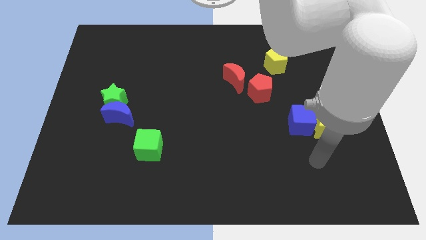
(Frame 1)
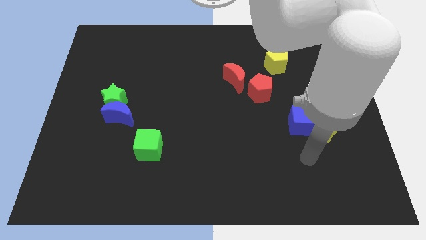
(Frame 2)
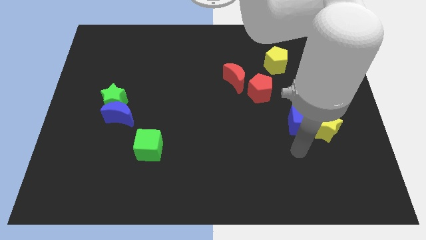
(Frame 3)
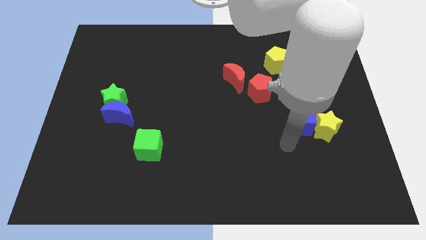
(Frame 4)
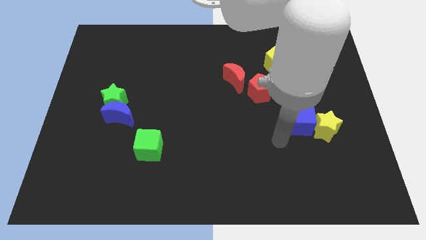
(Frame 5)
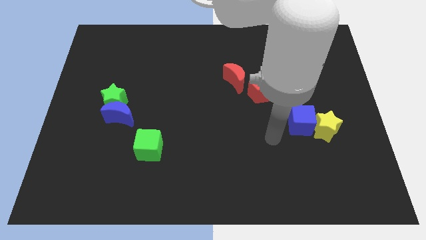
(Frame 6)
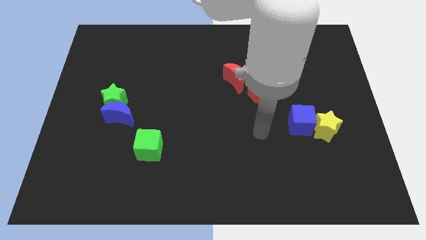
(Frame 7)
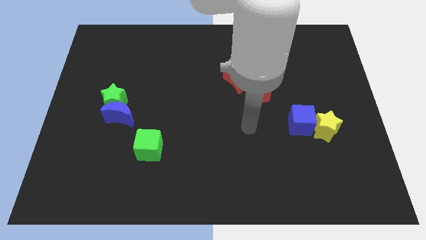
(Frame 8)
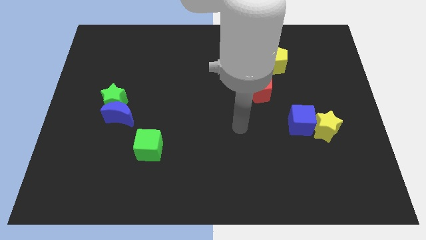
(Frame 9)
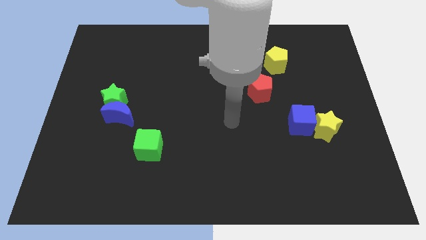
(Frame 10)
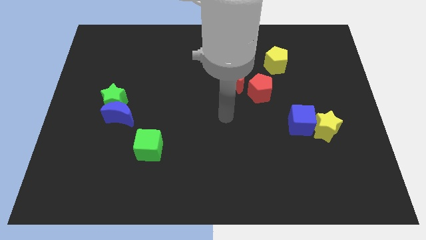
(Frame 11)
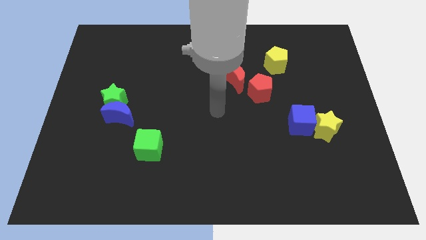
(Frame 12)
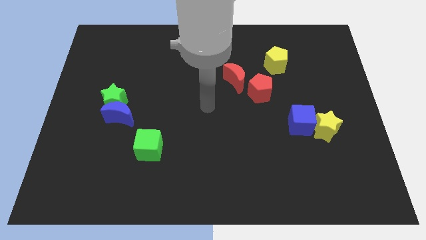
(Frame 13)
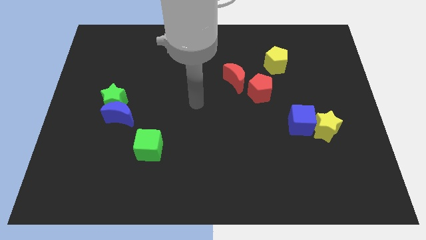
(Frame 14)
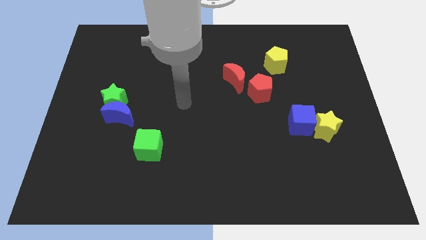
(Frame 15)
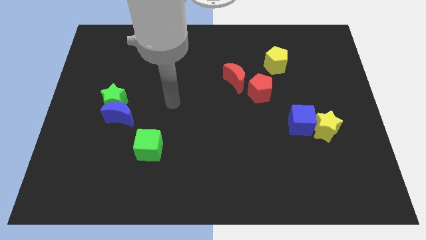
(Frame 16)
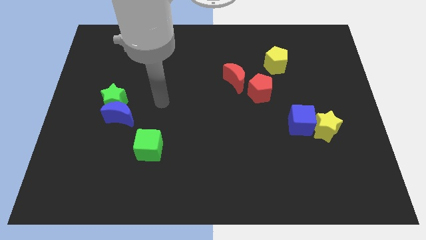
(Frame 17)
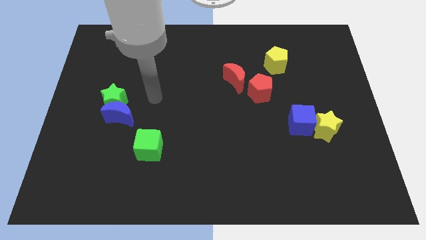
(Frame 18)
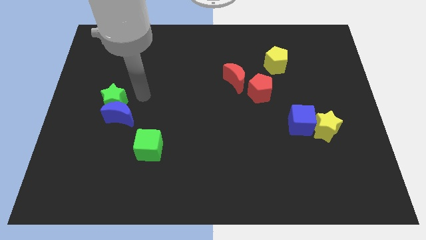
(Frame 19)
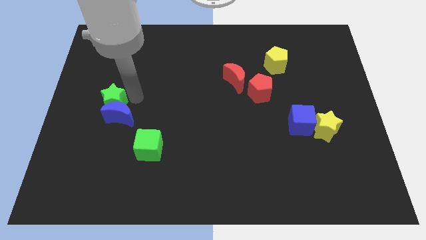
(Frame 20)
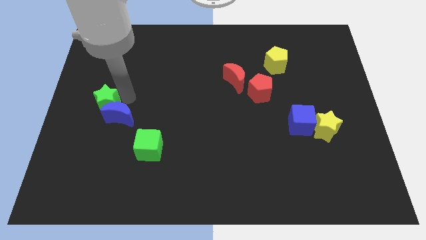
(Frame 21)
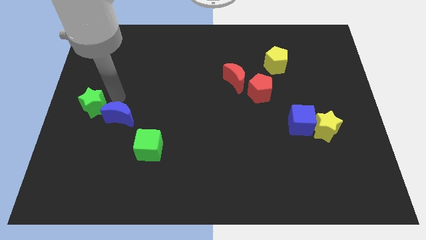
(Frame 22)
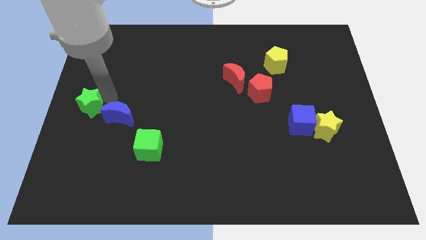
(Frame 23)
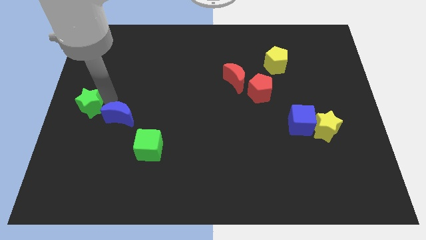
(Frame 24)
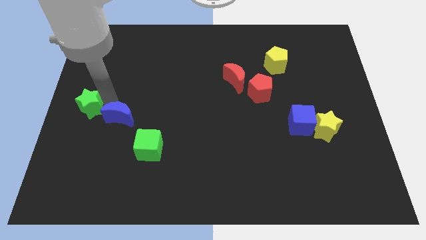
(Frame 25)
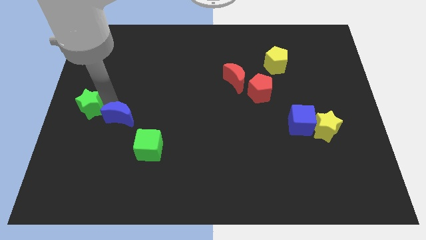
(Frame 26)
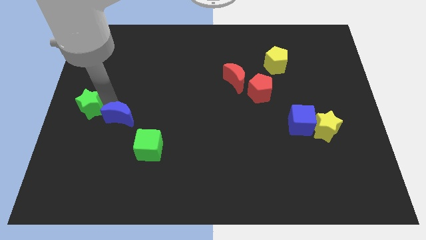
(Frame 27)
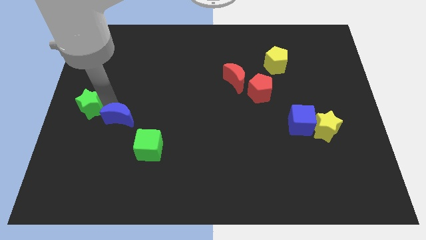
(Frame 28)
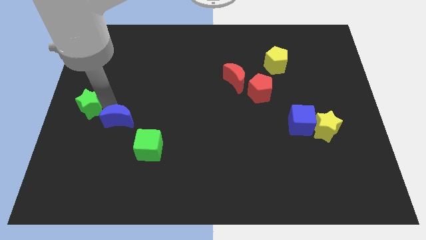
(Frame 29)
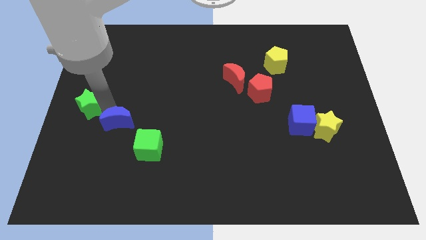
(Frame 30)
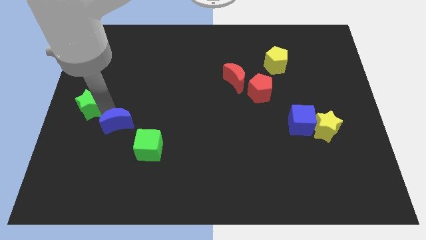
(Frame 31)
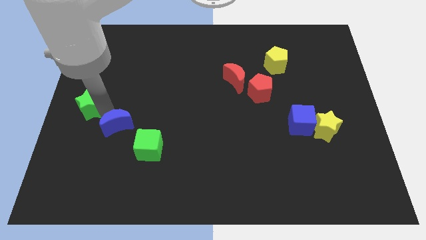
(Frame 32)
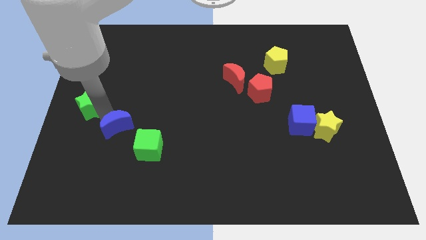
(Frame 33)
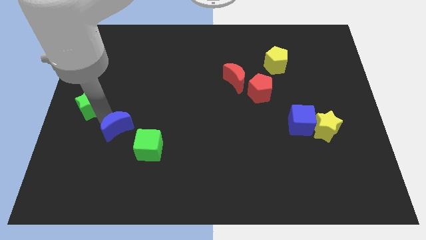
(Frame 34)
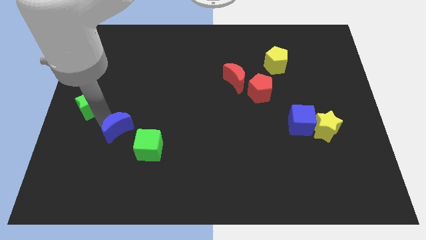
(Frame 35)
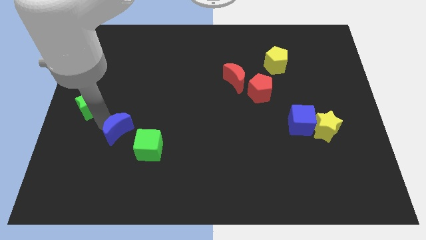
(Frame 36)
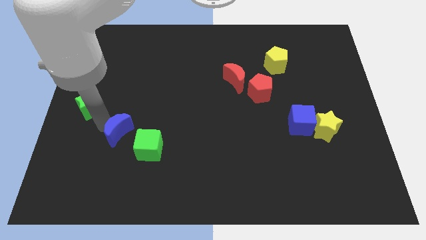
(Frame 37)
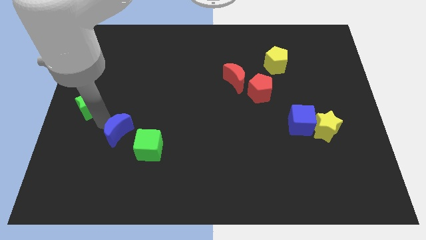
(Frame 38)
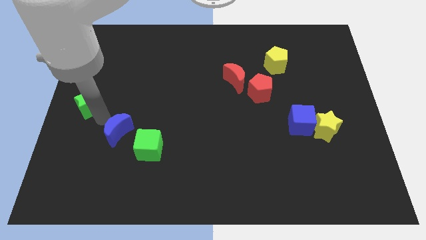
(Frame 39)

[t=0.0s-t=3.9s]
move the blue moon away from the green star

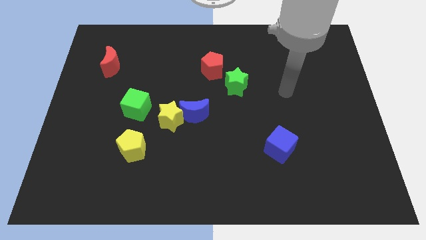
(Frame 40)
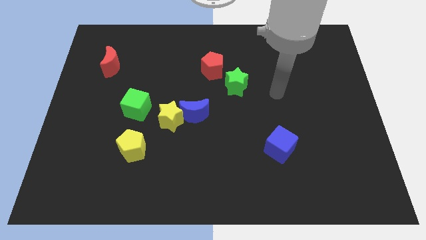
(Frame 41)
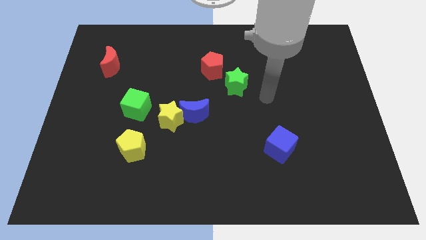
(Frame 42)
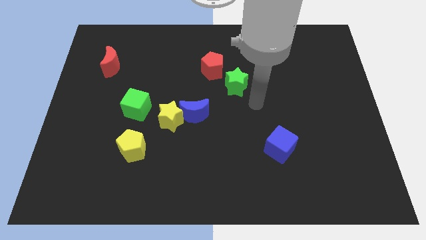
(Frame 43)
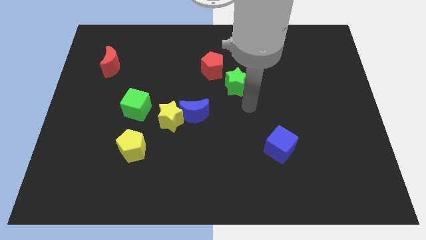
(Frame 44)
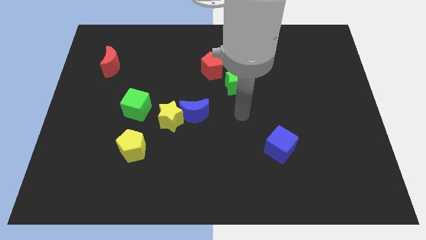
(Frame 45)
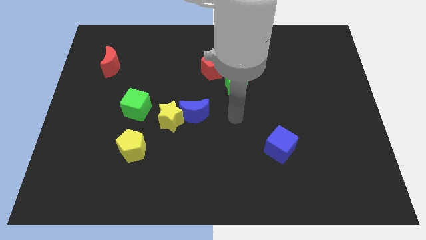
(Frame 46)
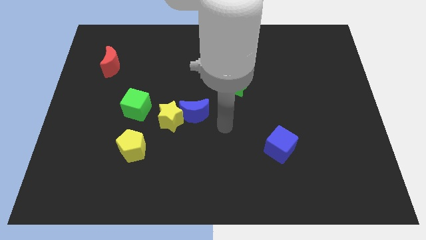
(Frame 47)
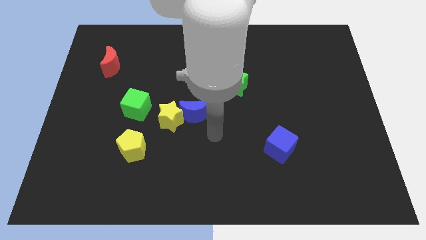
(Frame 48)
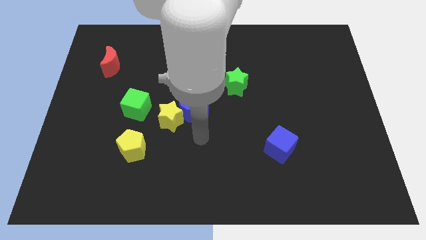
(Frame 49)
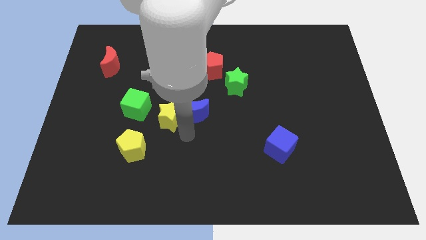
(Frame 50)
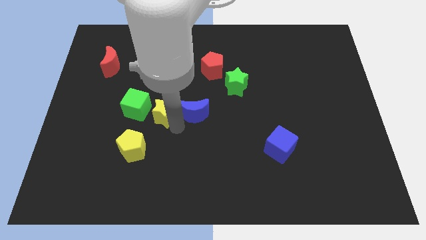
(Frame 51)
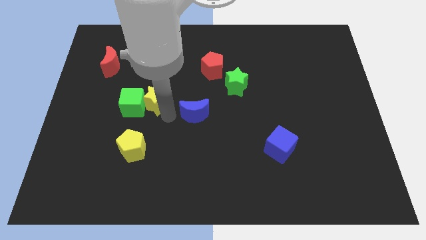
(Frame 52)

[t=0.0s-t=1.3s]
pull the blue moon apart from the yellow star

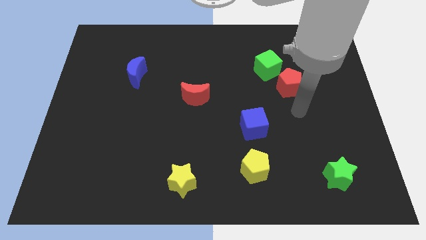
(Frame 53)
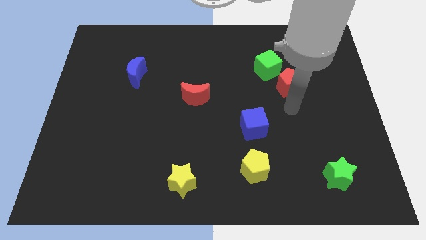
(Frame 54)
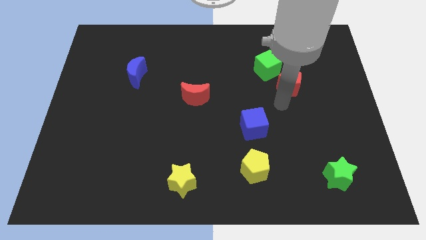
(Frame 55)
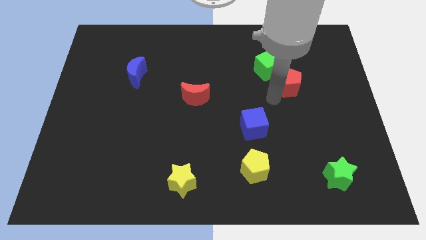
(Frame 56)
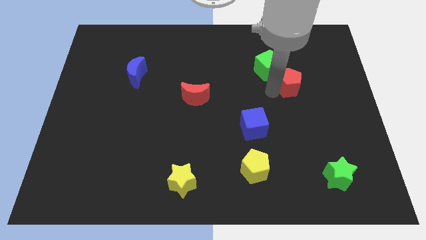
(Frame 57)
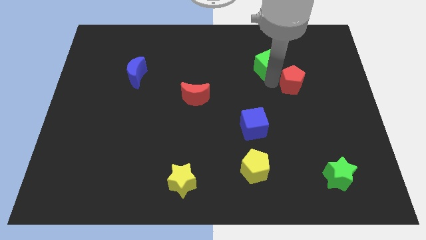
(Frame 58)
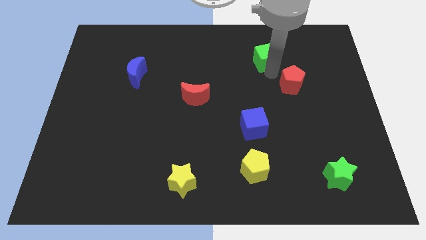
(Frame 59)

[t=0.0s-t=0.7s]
move the red pentagon away from the green cube

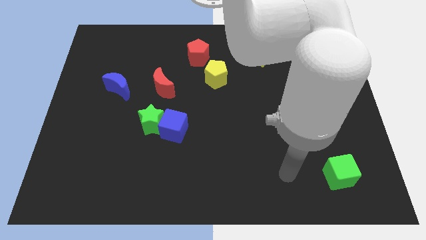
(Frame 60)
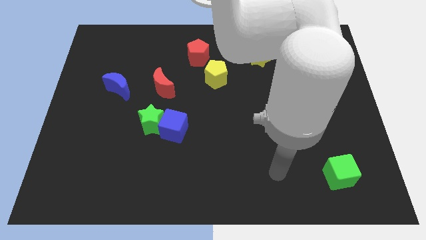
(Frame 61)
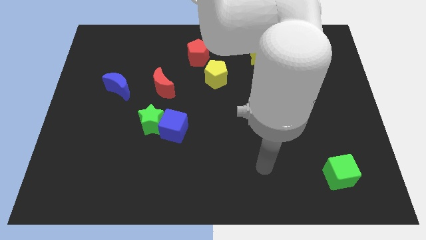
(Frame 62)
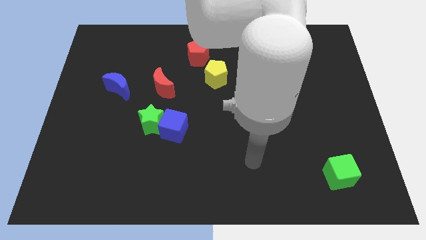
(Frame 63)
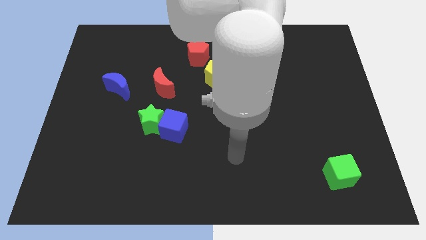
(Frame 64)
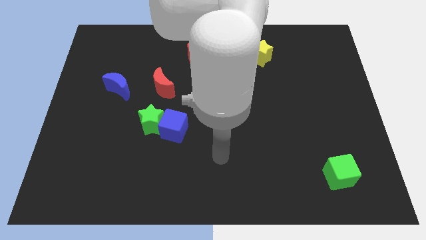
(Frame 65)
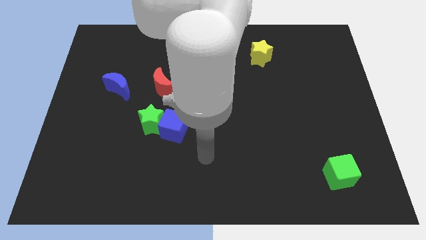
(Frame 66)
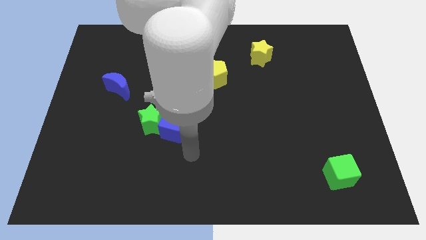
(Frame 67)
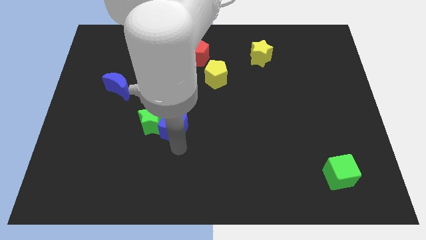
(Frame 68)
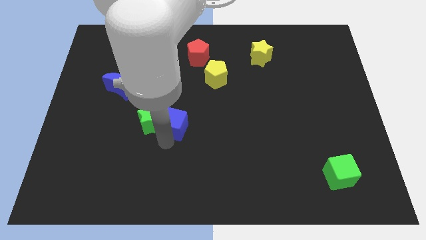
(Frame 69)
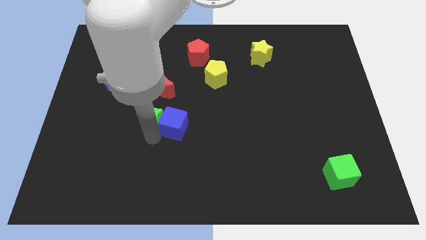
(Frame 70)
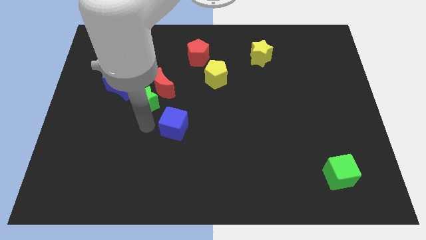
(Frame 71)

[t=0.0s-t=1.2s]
move the blue cube away from the green star

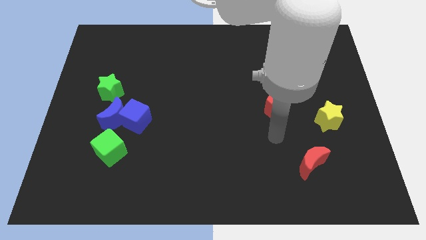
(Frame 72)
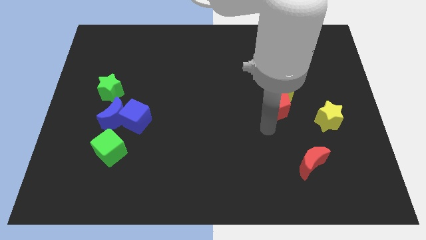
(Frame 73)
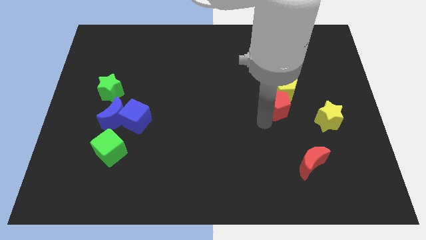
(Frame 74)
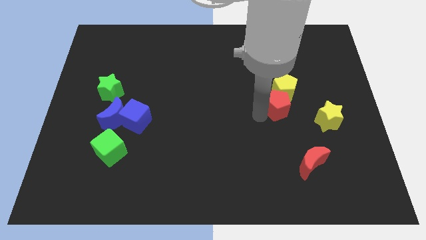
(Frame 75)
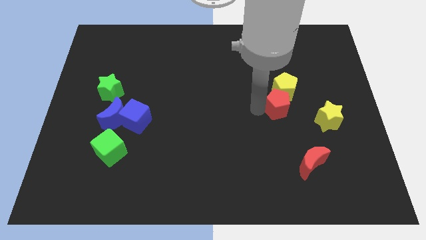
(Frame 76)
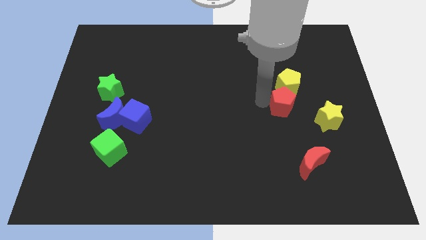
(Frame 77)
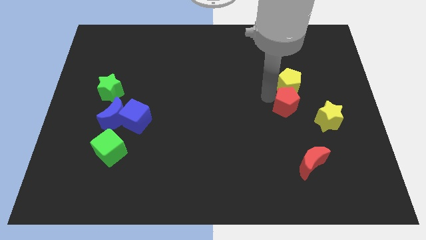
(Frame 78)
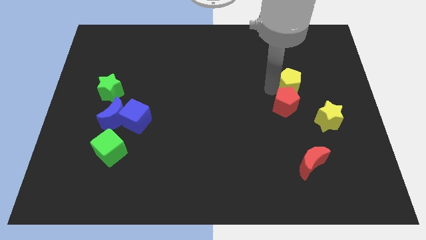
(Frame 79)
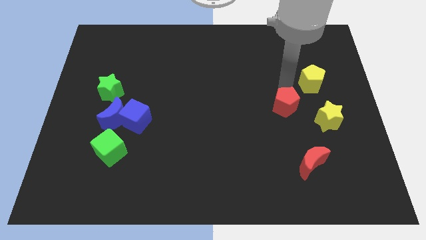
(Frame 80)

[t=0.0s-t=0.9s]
separate the red pentagon from the yellow pentagon

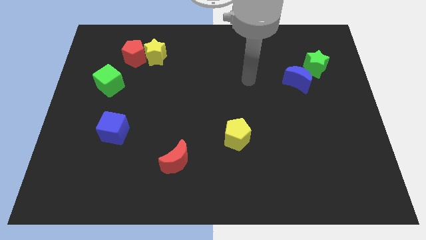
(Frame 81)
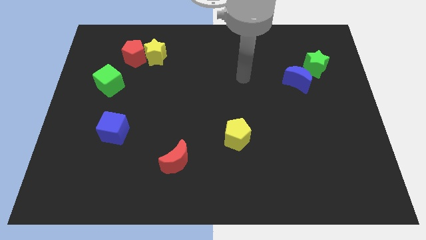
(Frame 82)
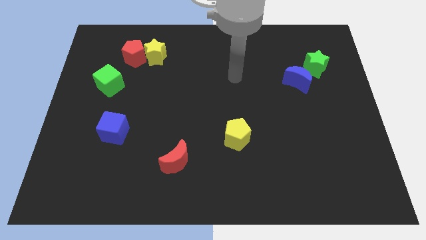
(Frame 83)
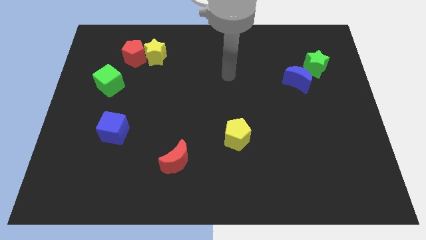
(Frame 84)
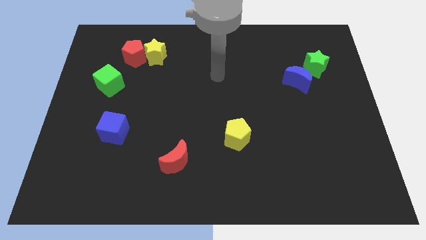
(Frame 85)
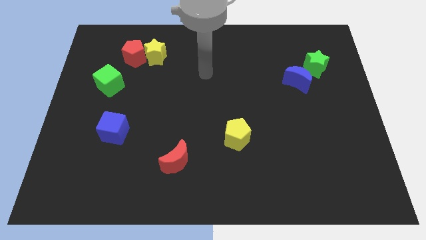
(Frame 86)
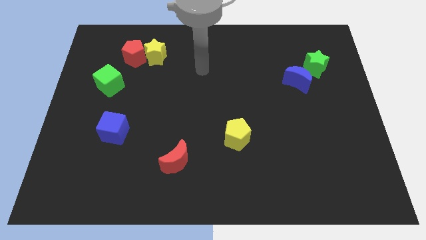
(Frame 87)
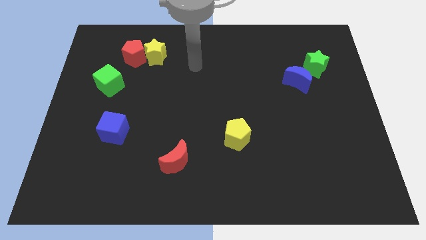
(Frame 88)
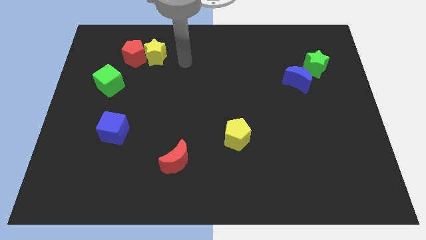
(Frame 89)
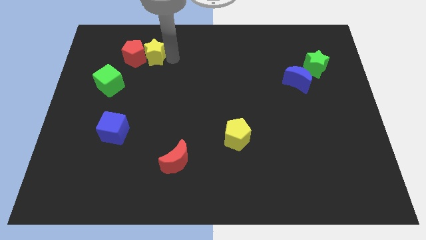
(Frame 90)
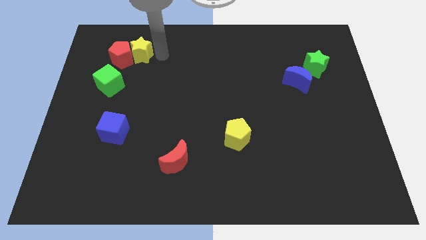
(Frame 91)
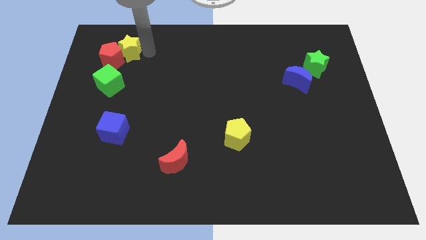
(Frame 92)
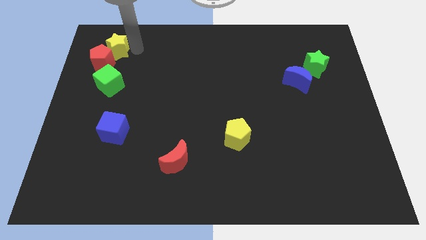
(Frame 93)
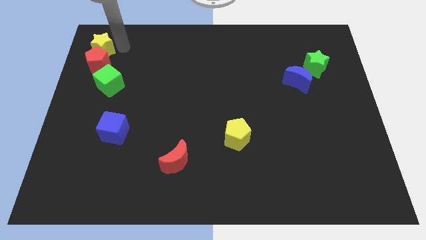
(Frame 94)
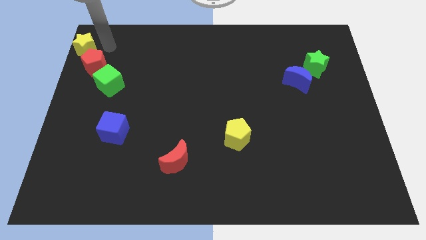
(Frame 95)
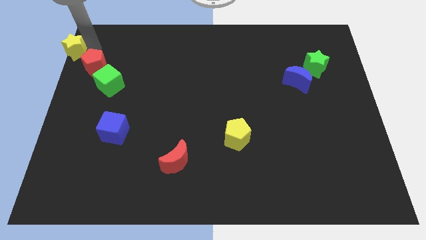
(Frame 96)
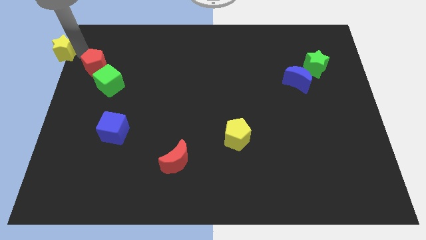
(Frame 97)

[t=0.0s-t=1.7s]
separate the red pentagon from the yellow star
